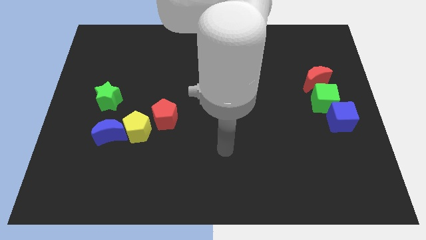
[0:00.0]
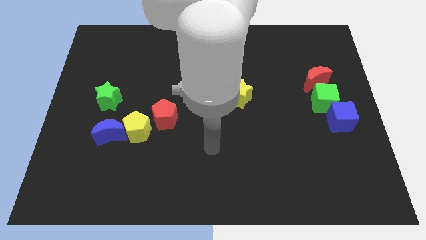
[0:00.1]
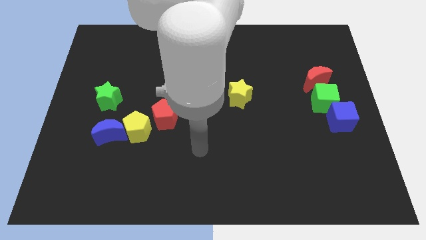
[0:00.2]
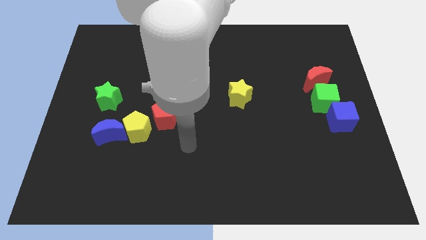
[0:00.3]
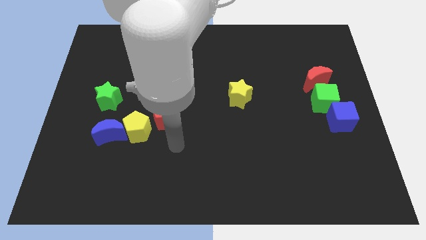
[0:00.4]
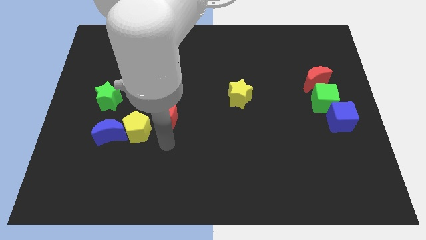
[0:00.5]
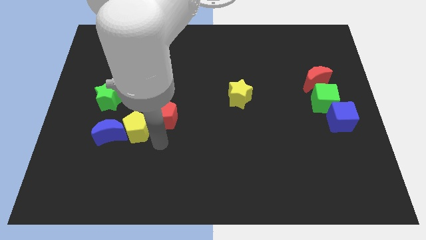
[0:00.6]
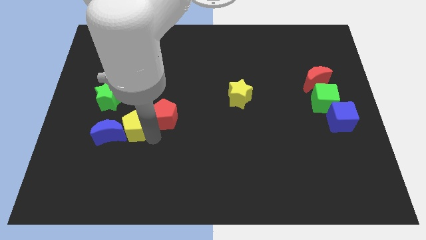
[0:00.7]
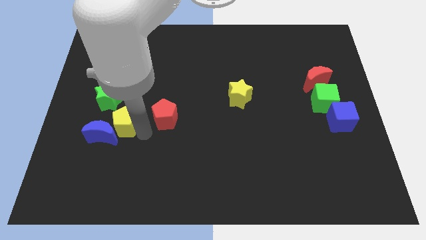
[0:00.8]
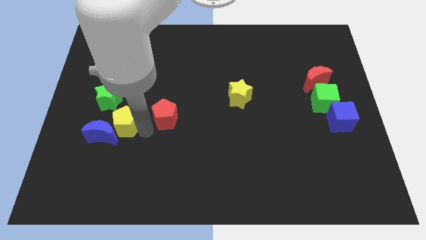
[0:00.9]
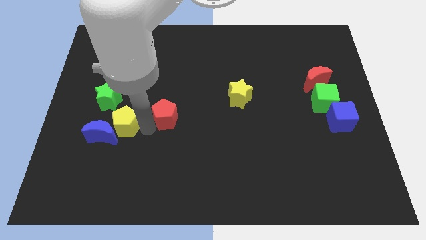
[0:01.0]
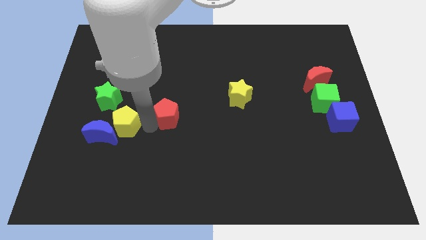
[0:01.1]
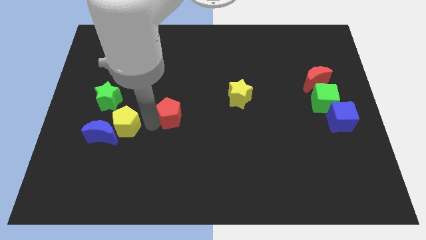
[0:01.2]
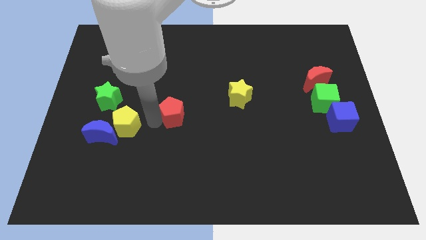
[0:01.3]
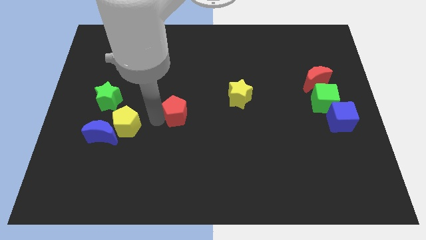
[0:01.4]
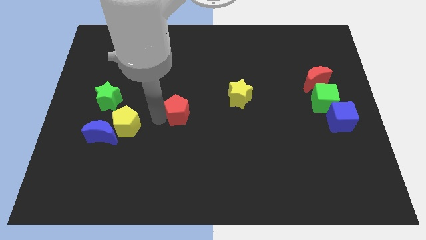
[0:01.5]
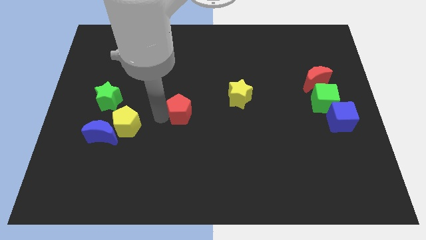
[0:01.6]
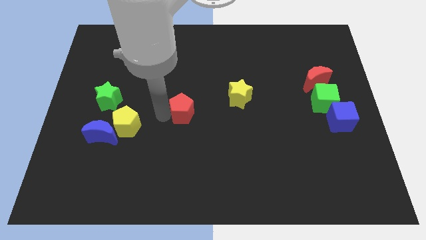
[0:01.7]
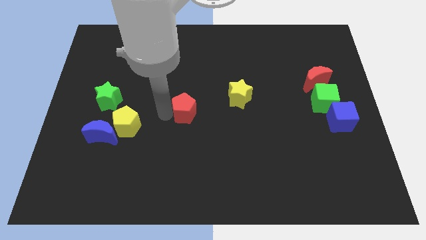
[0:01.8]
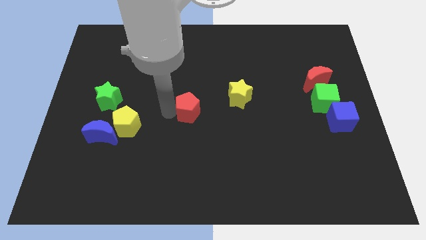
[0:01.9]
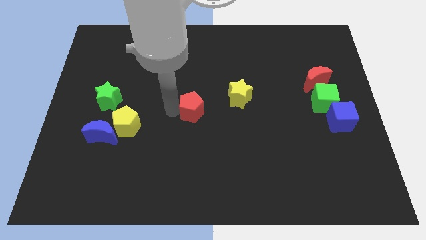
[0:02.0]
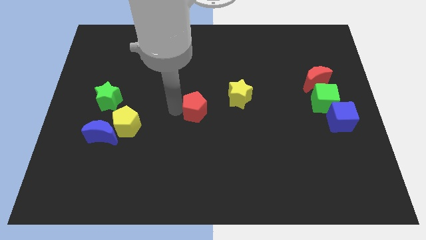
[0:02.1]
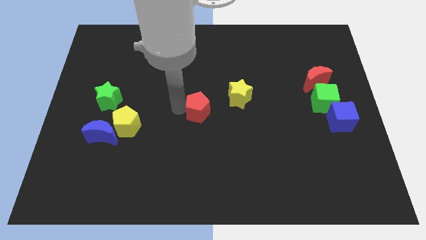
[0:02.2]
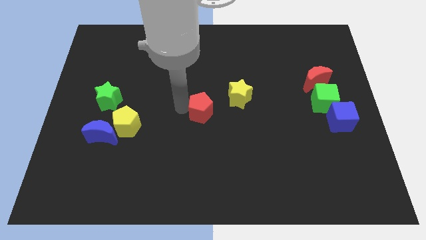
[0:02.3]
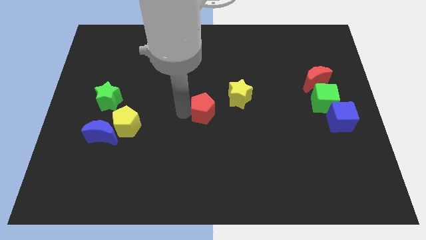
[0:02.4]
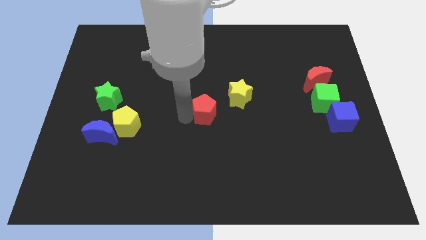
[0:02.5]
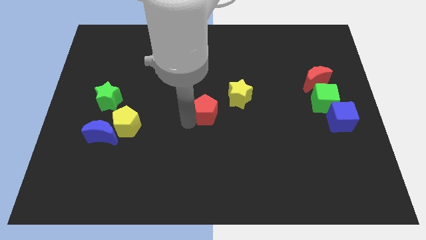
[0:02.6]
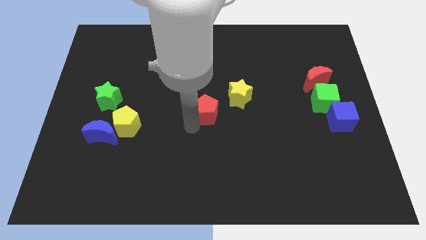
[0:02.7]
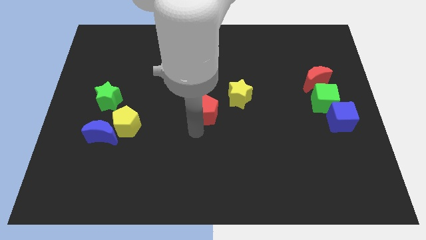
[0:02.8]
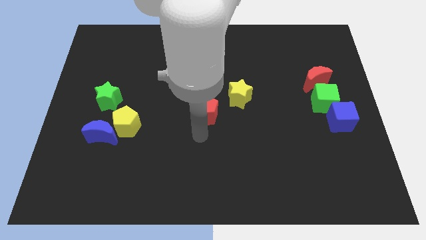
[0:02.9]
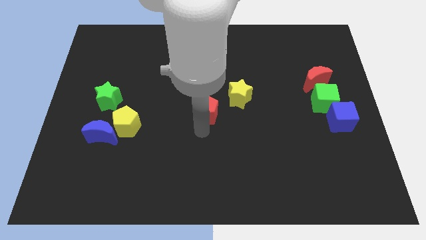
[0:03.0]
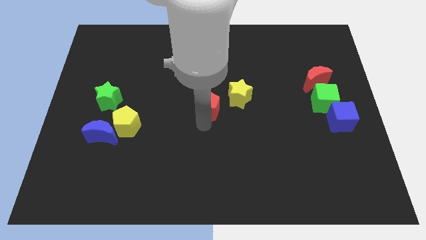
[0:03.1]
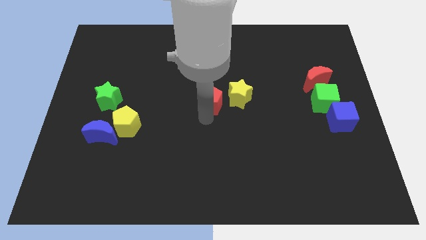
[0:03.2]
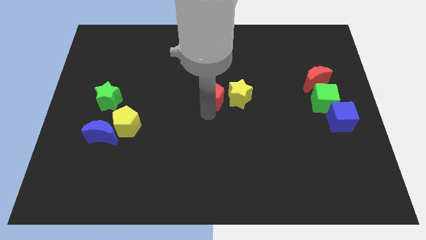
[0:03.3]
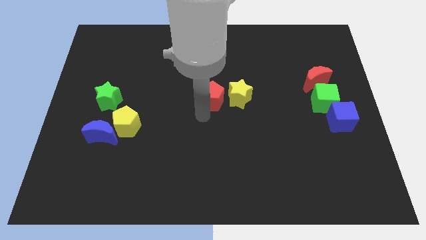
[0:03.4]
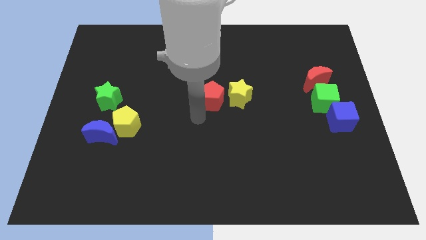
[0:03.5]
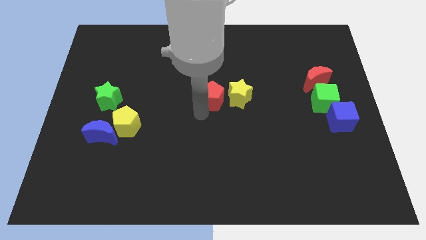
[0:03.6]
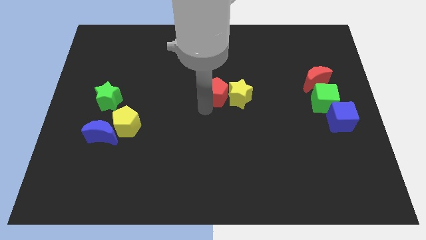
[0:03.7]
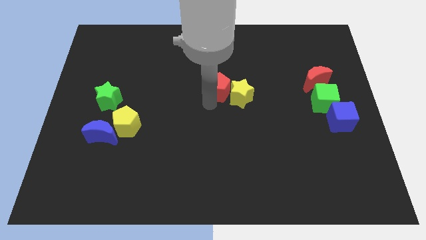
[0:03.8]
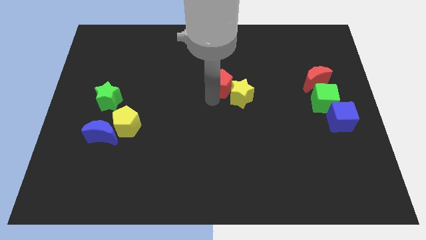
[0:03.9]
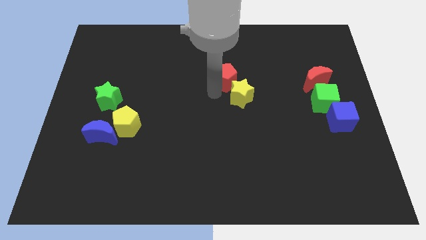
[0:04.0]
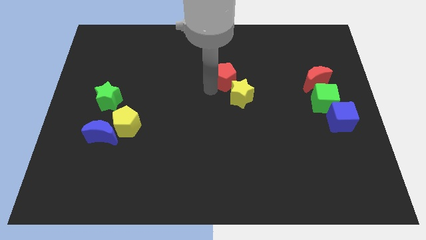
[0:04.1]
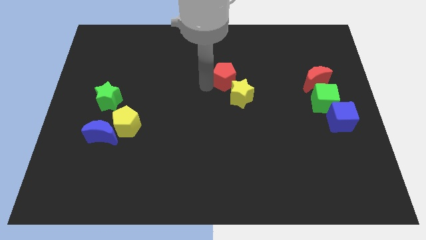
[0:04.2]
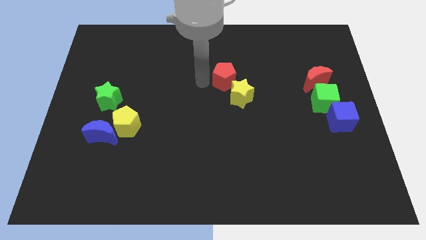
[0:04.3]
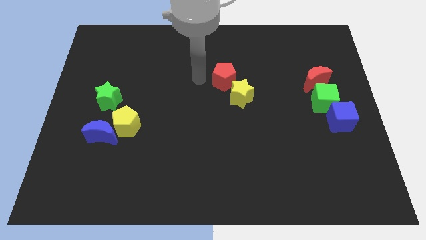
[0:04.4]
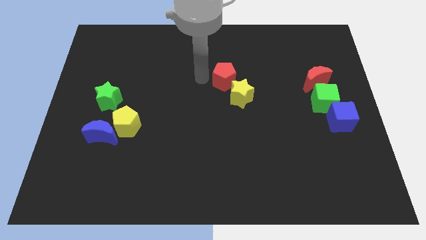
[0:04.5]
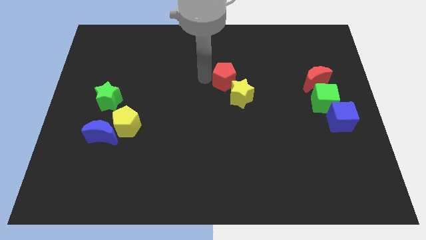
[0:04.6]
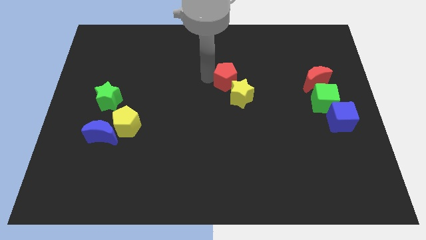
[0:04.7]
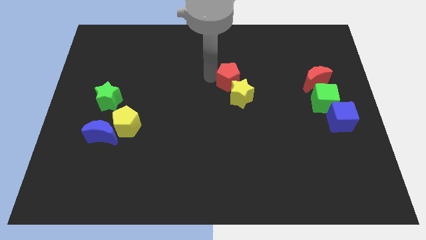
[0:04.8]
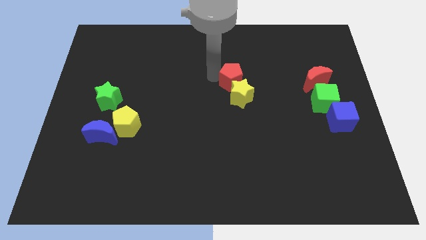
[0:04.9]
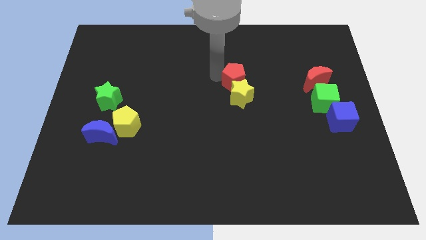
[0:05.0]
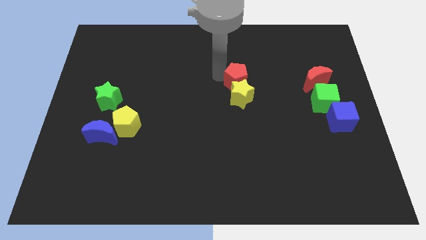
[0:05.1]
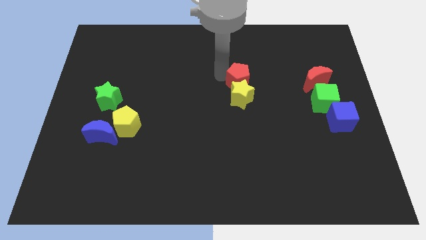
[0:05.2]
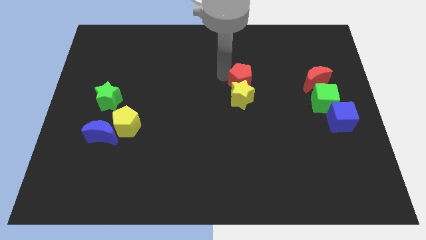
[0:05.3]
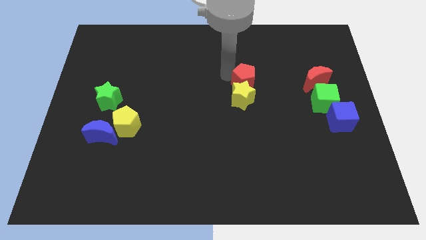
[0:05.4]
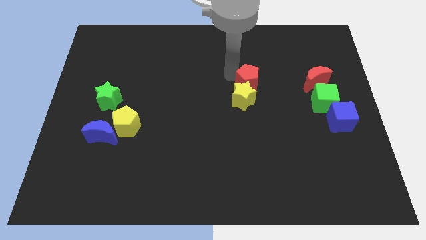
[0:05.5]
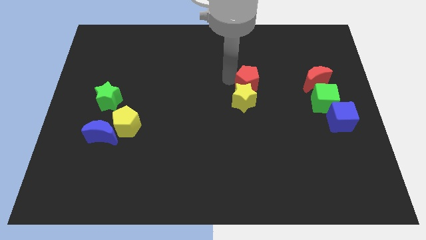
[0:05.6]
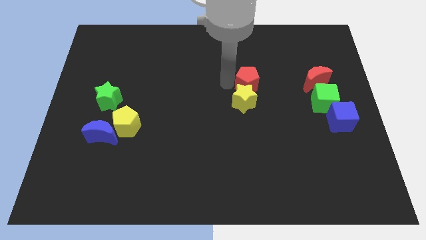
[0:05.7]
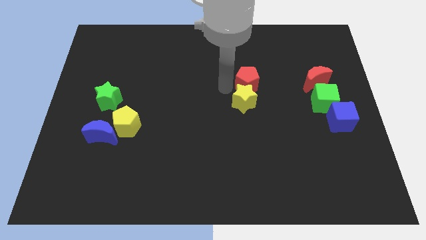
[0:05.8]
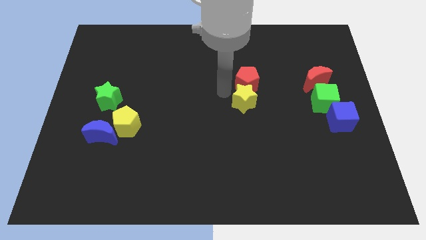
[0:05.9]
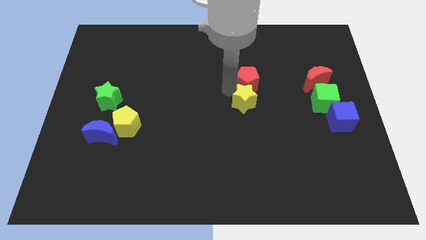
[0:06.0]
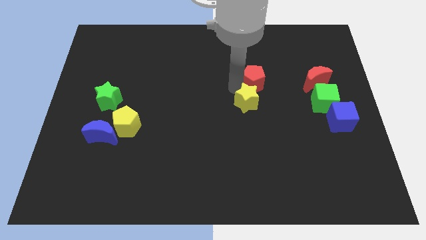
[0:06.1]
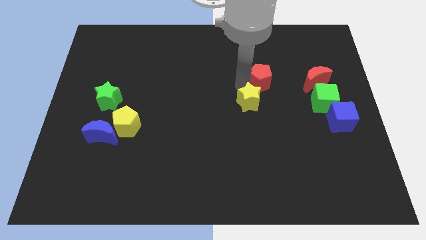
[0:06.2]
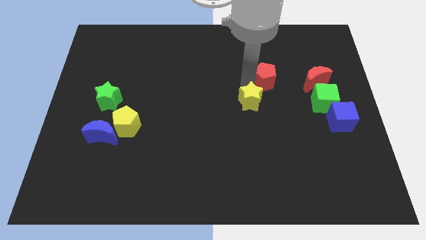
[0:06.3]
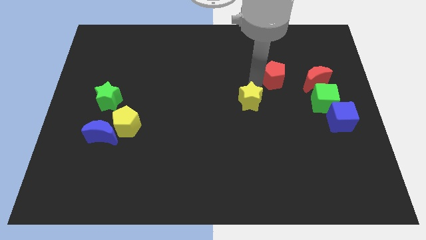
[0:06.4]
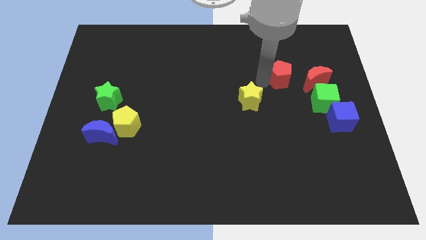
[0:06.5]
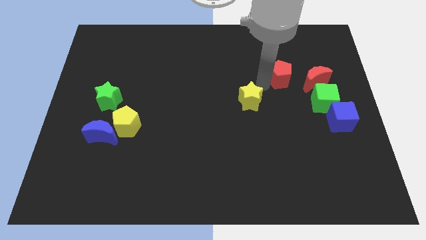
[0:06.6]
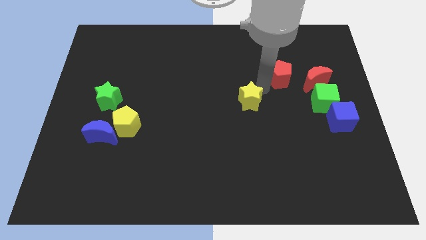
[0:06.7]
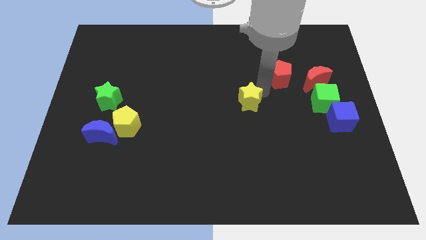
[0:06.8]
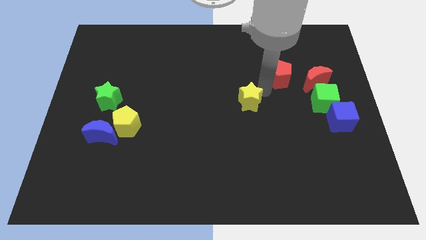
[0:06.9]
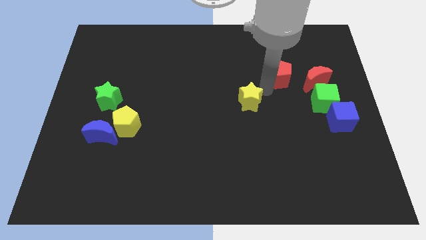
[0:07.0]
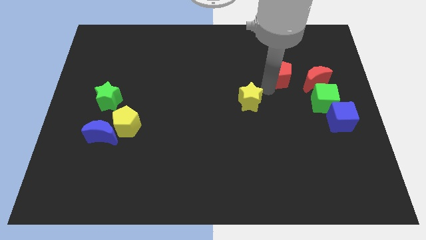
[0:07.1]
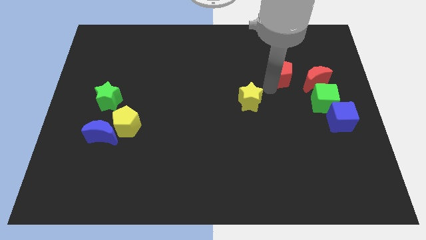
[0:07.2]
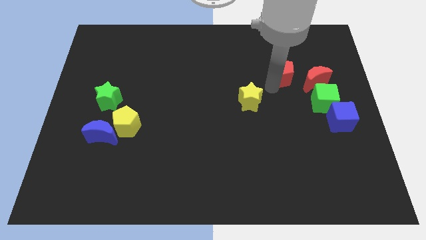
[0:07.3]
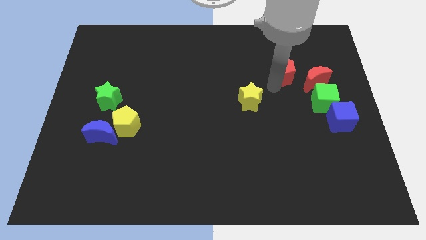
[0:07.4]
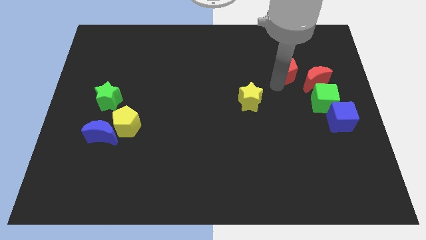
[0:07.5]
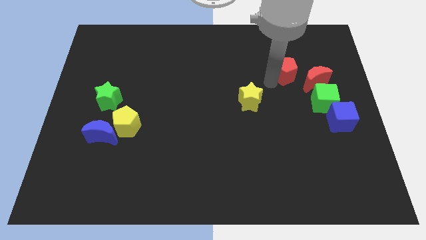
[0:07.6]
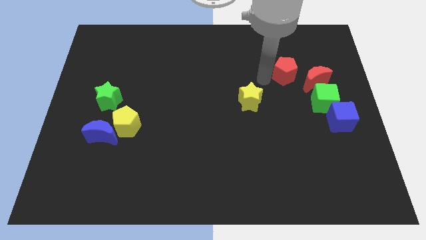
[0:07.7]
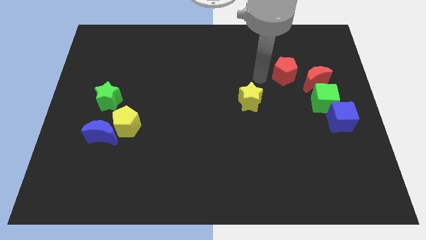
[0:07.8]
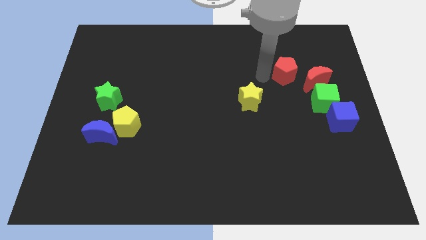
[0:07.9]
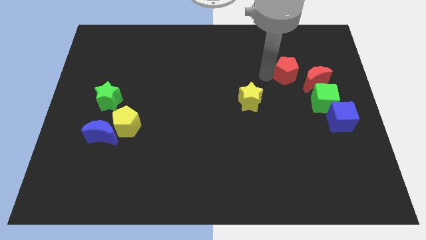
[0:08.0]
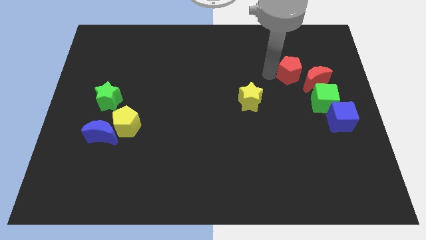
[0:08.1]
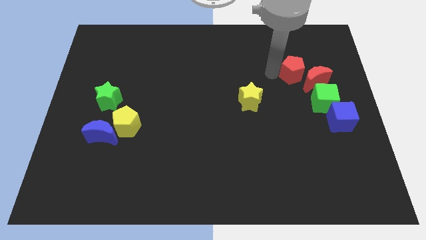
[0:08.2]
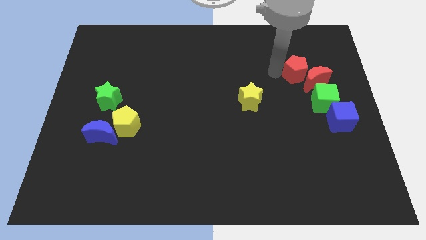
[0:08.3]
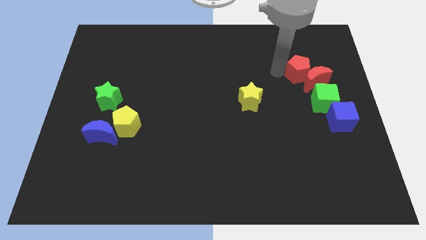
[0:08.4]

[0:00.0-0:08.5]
push the red pentagon above the green cube
